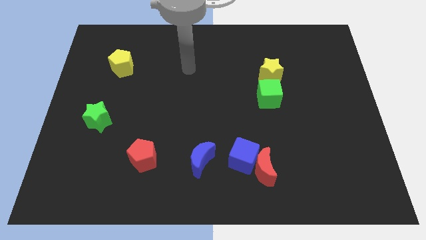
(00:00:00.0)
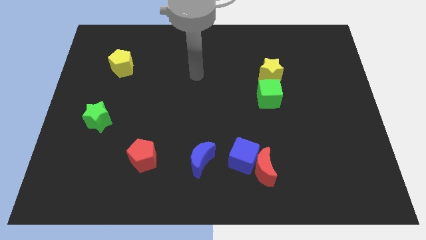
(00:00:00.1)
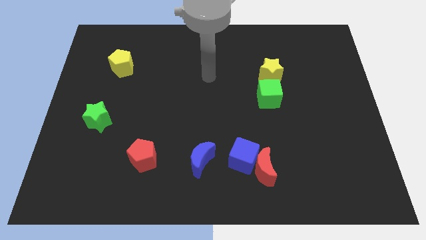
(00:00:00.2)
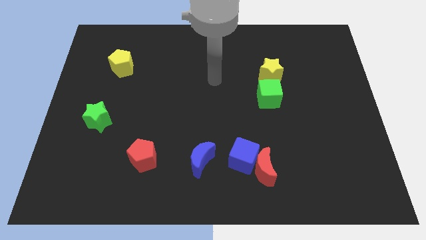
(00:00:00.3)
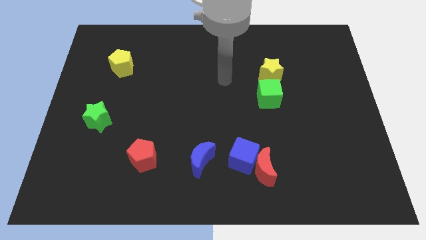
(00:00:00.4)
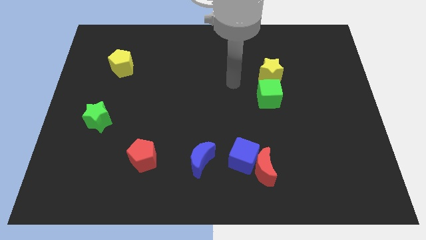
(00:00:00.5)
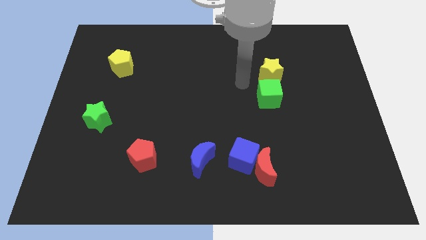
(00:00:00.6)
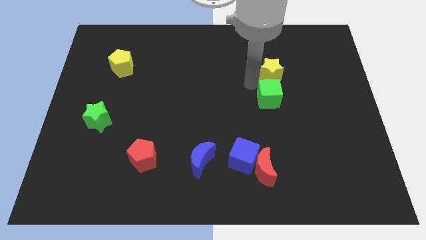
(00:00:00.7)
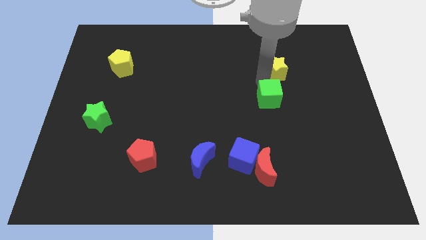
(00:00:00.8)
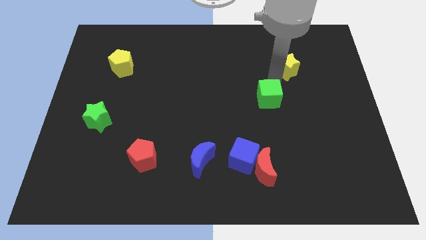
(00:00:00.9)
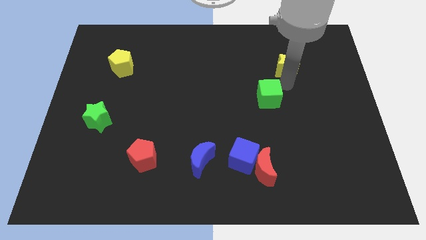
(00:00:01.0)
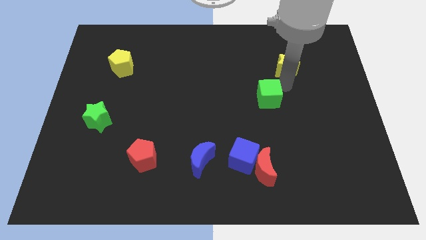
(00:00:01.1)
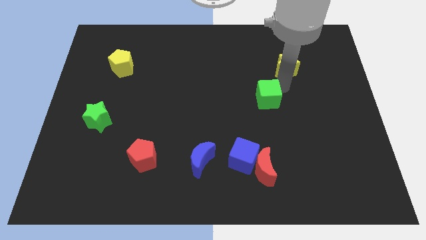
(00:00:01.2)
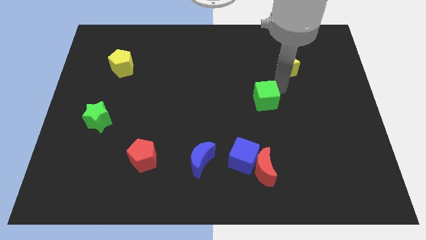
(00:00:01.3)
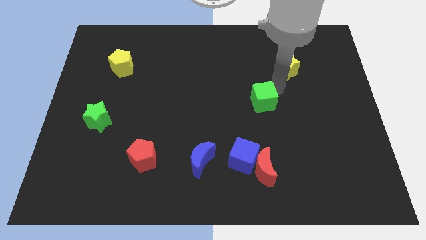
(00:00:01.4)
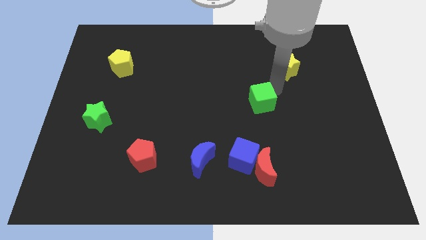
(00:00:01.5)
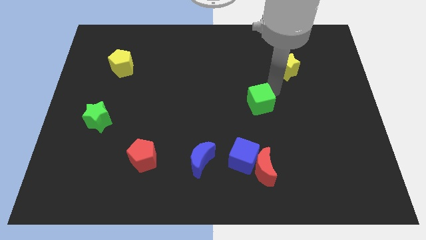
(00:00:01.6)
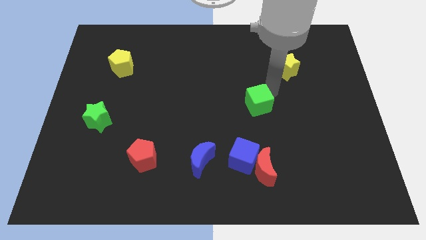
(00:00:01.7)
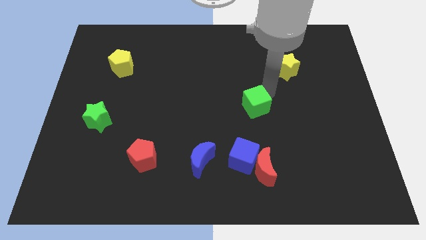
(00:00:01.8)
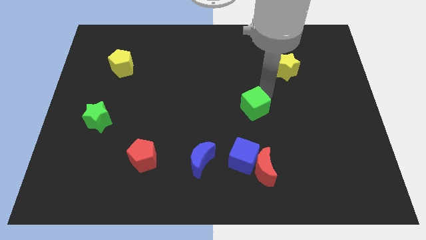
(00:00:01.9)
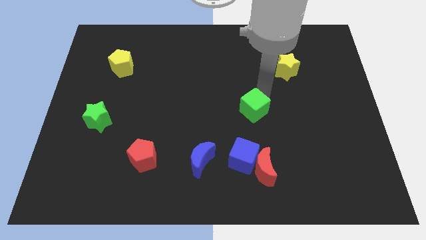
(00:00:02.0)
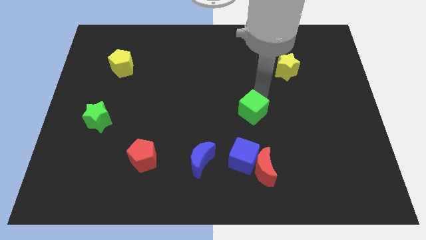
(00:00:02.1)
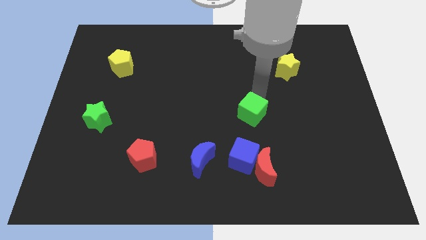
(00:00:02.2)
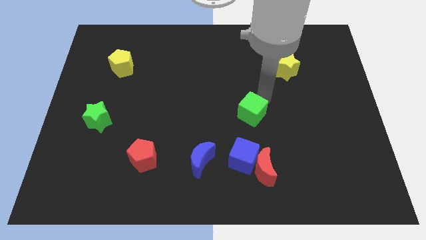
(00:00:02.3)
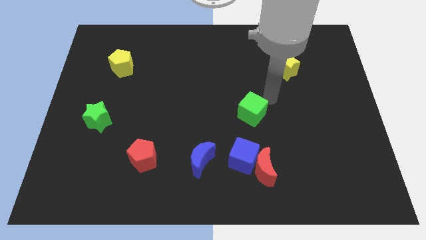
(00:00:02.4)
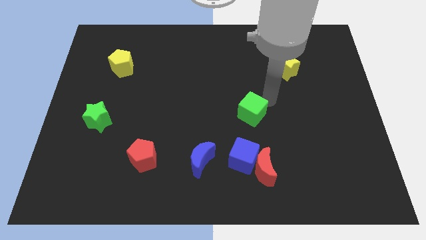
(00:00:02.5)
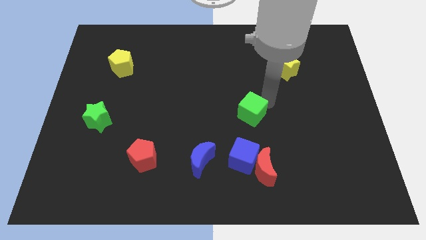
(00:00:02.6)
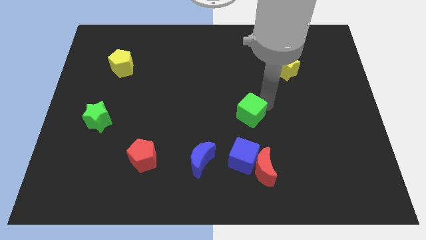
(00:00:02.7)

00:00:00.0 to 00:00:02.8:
slightly slide the green cube diagonally downwards and to the left

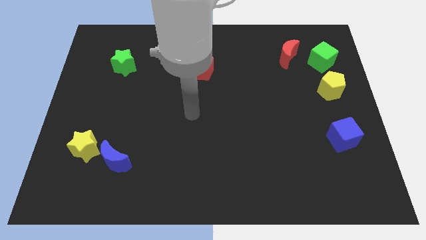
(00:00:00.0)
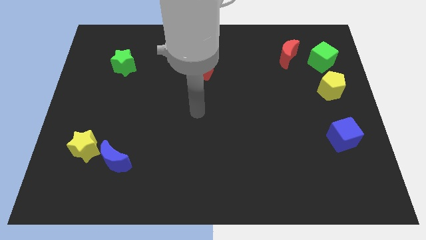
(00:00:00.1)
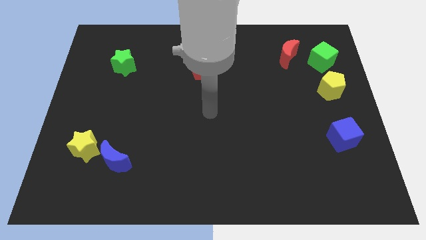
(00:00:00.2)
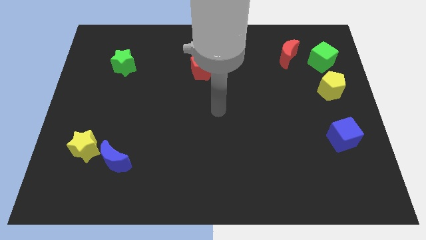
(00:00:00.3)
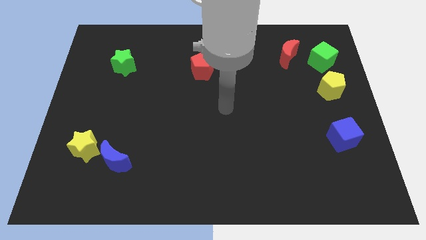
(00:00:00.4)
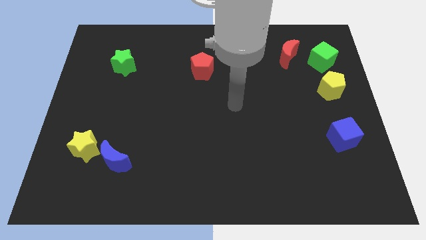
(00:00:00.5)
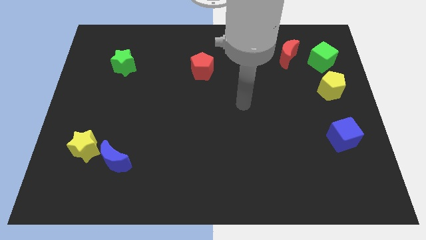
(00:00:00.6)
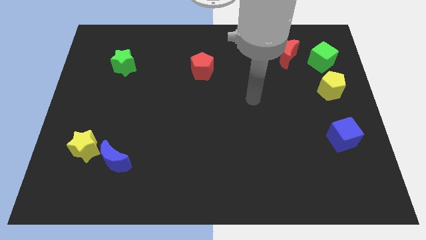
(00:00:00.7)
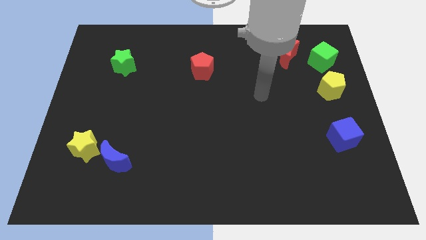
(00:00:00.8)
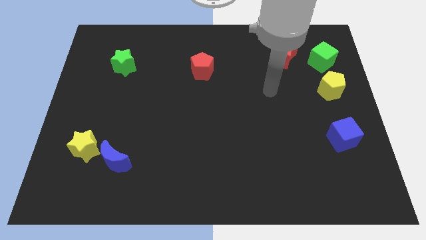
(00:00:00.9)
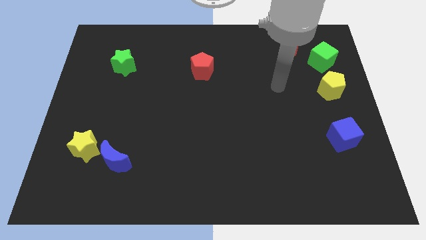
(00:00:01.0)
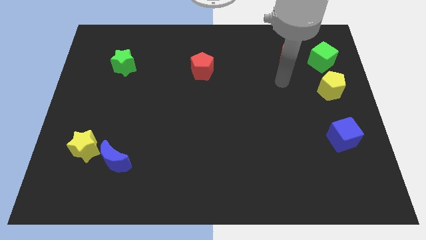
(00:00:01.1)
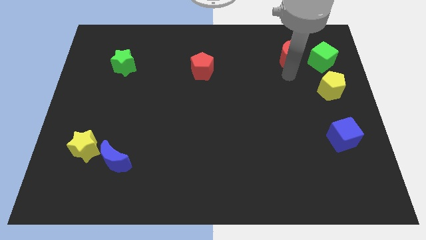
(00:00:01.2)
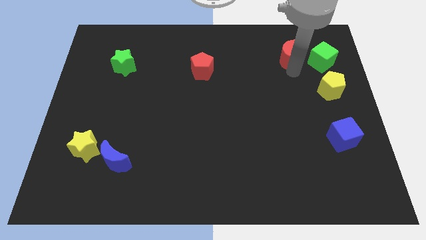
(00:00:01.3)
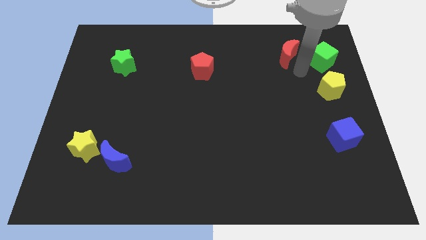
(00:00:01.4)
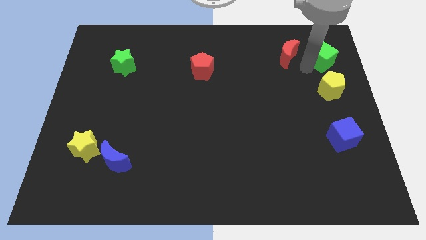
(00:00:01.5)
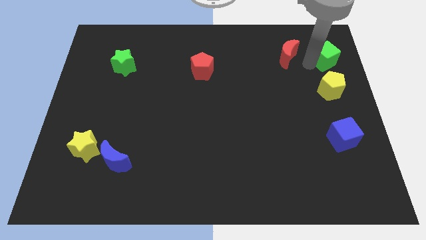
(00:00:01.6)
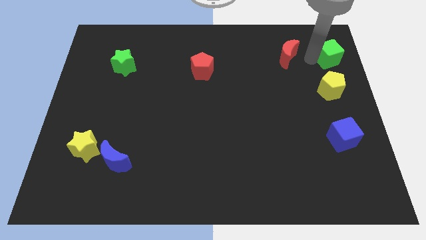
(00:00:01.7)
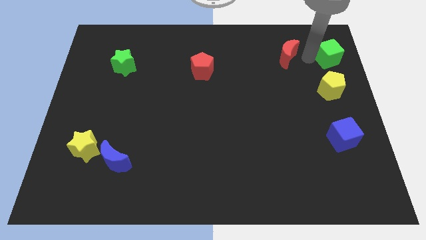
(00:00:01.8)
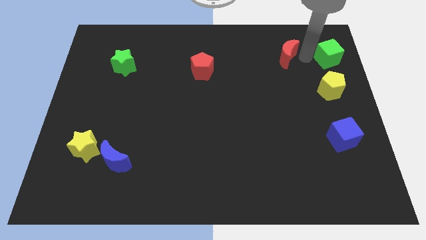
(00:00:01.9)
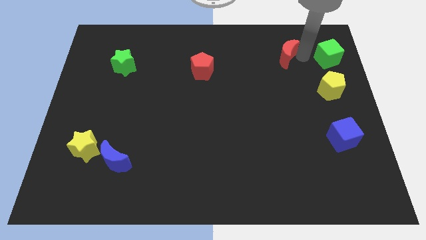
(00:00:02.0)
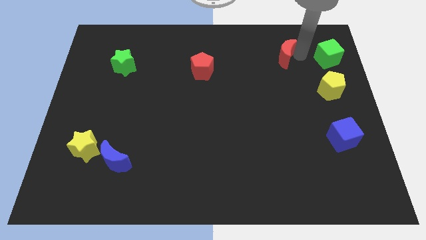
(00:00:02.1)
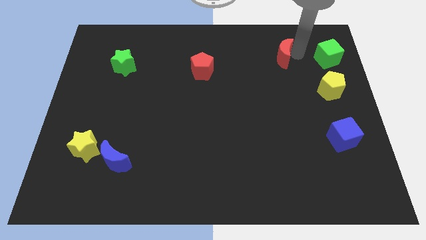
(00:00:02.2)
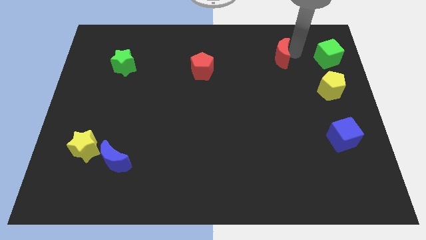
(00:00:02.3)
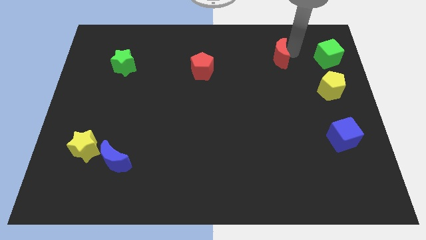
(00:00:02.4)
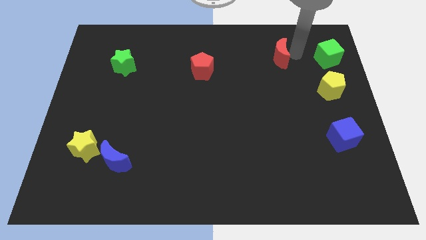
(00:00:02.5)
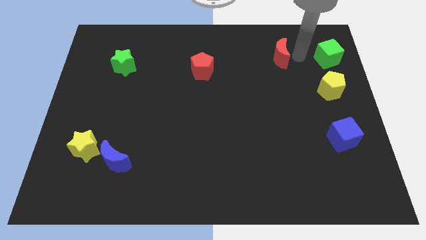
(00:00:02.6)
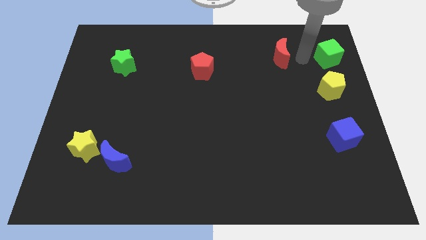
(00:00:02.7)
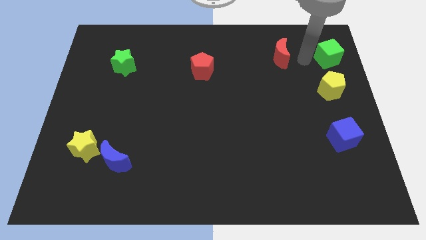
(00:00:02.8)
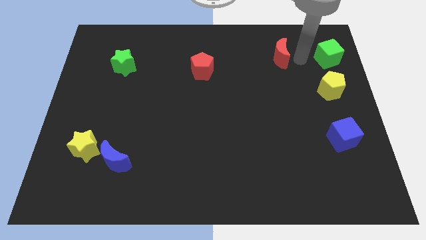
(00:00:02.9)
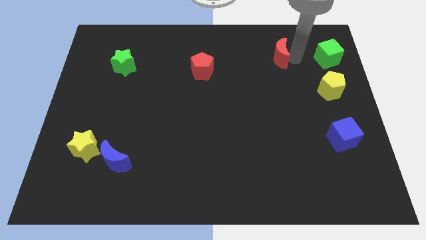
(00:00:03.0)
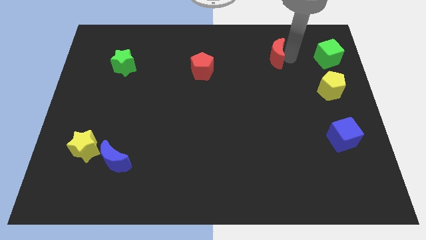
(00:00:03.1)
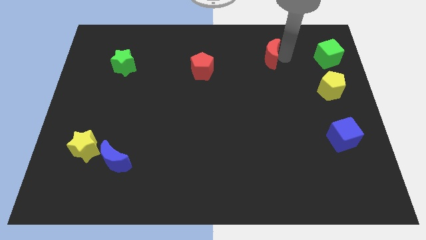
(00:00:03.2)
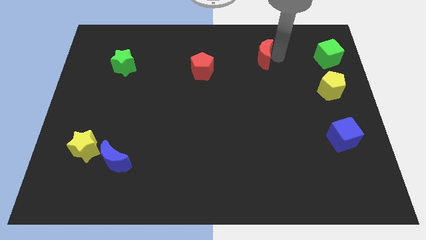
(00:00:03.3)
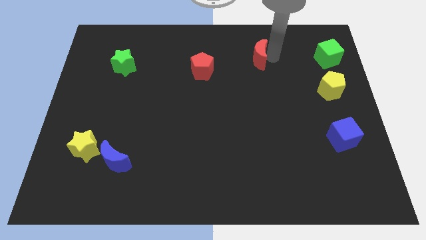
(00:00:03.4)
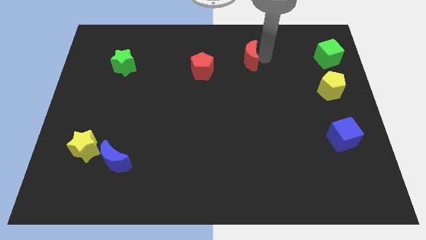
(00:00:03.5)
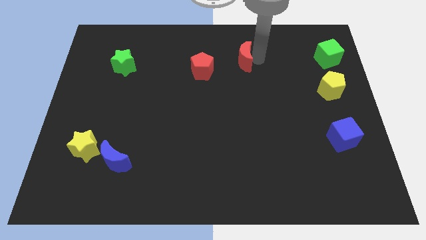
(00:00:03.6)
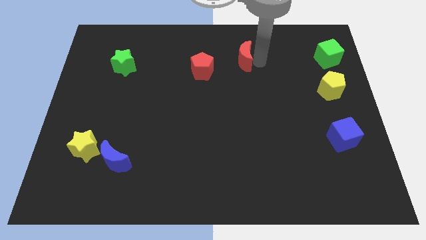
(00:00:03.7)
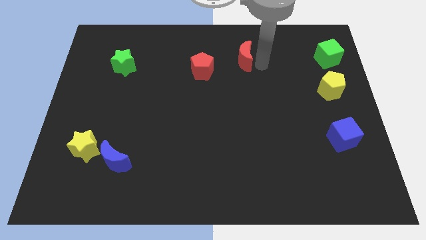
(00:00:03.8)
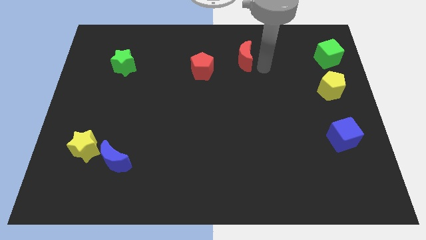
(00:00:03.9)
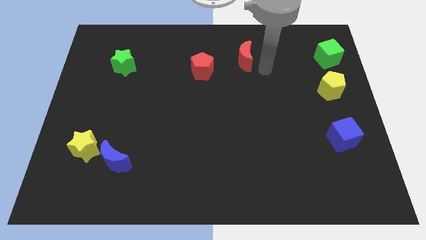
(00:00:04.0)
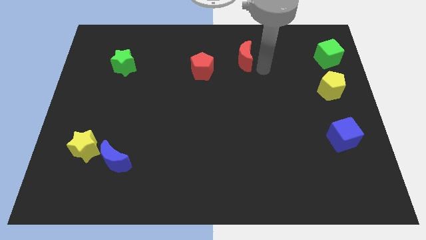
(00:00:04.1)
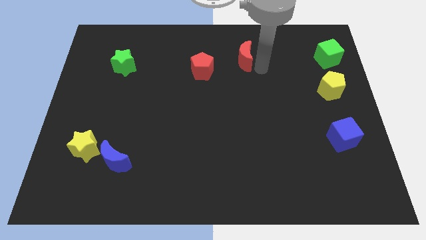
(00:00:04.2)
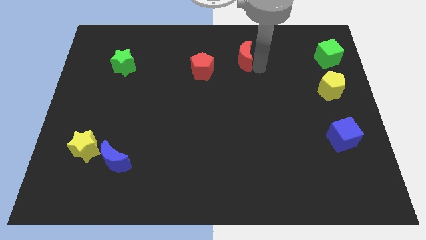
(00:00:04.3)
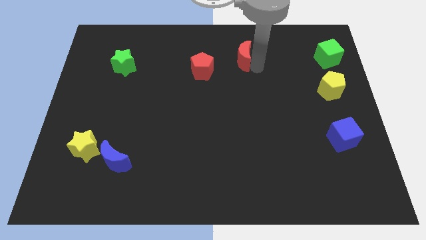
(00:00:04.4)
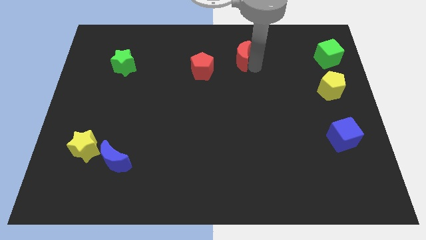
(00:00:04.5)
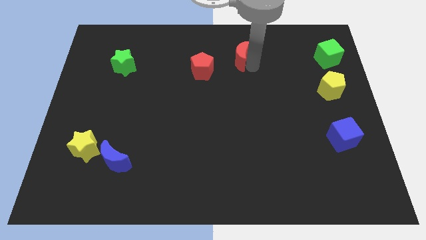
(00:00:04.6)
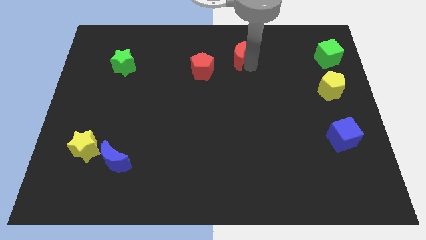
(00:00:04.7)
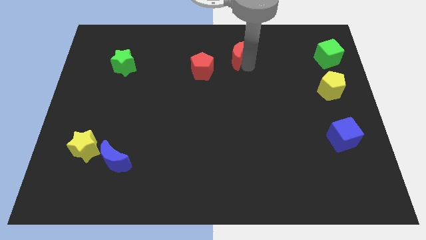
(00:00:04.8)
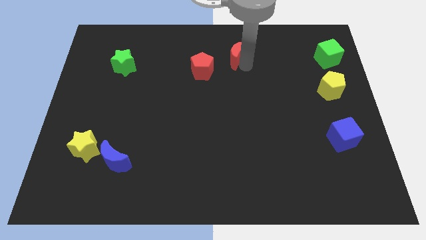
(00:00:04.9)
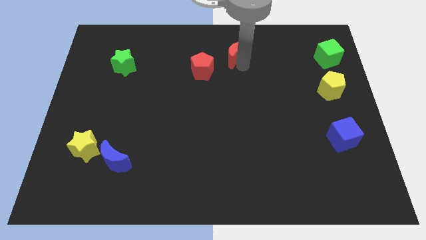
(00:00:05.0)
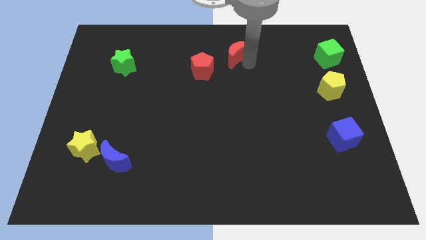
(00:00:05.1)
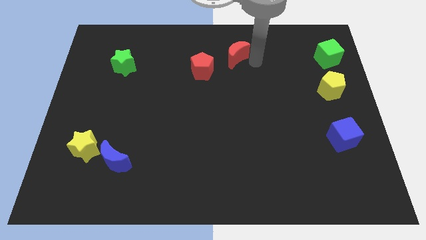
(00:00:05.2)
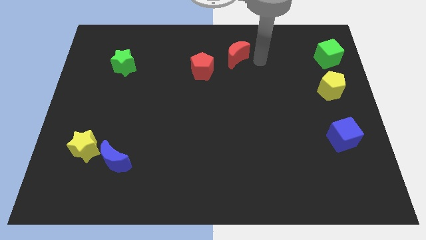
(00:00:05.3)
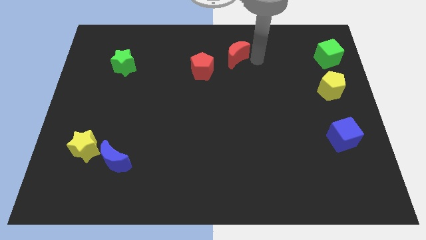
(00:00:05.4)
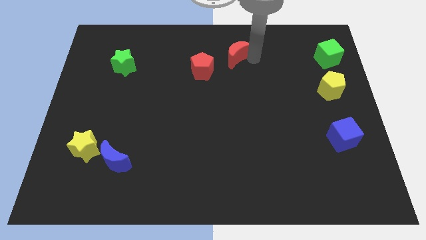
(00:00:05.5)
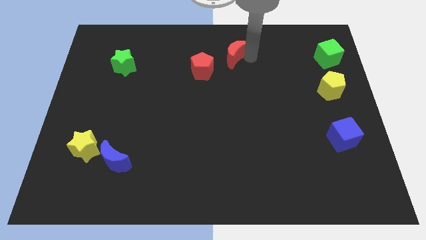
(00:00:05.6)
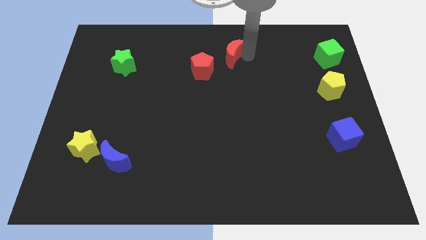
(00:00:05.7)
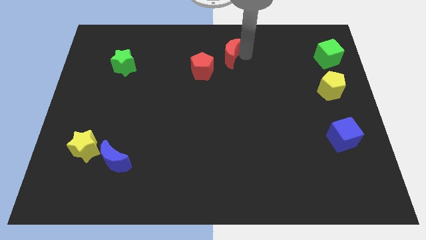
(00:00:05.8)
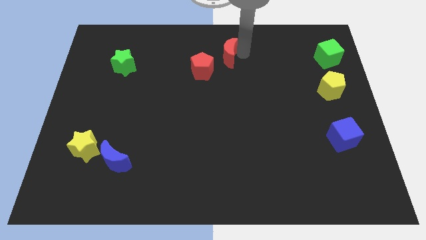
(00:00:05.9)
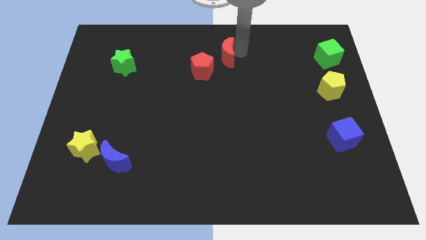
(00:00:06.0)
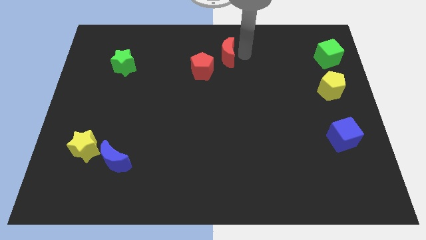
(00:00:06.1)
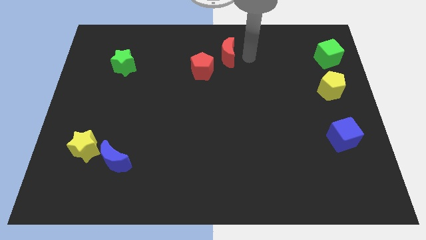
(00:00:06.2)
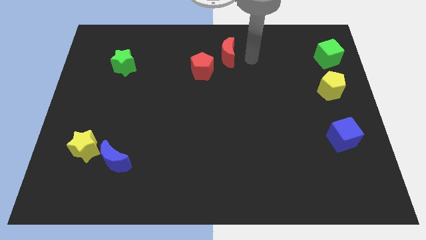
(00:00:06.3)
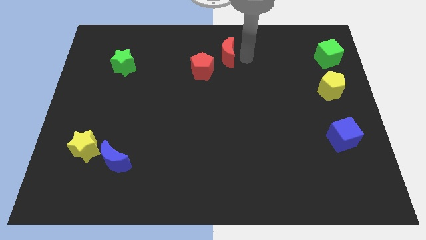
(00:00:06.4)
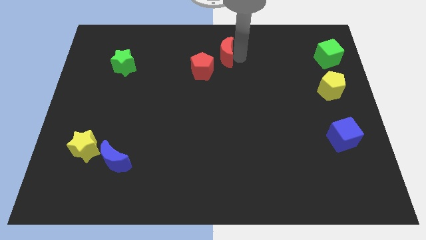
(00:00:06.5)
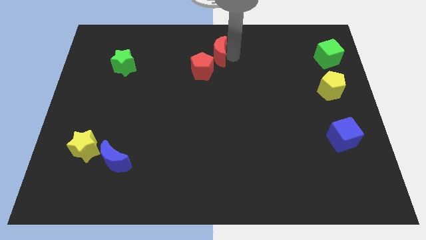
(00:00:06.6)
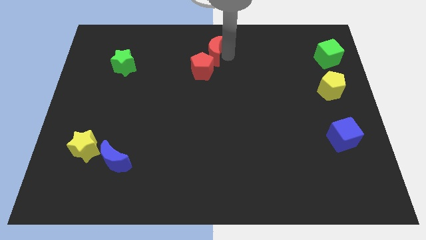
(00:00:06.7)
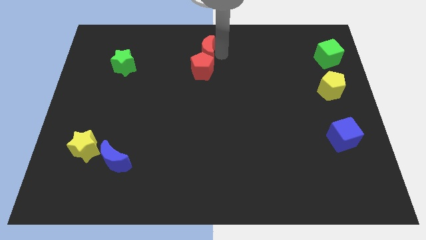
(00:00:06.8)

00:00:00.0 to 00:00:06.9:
move the red moon to the left
